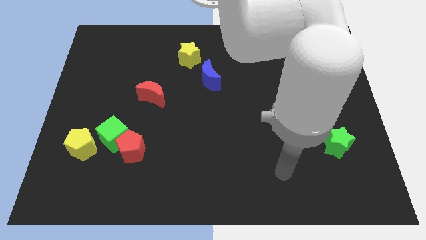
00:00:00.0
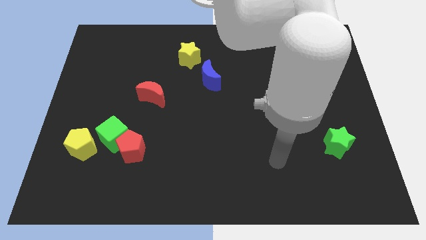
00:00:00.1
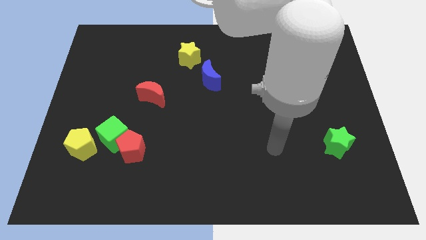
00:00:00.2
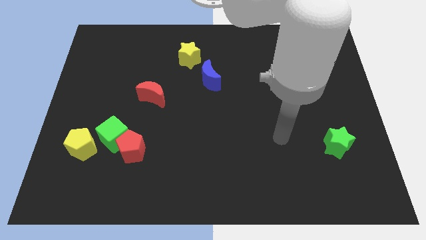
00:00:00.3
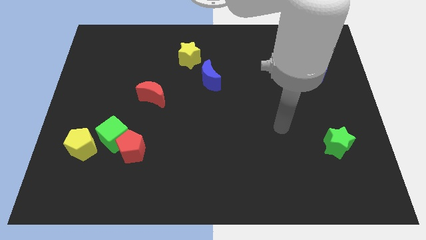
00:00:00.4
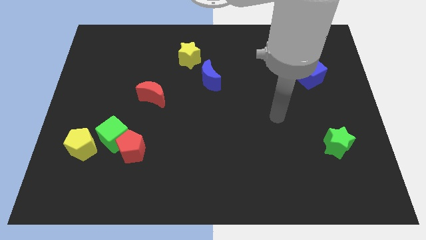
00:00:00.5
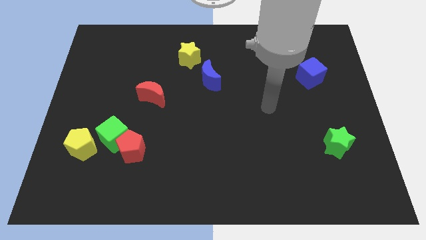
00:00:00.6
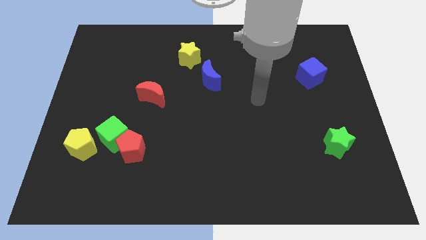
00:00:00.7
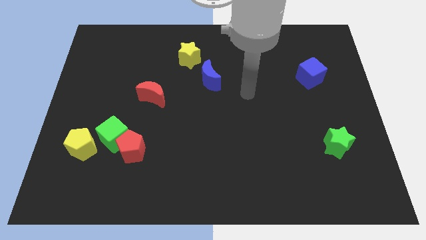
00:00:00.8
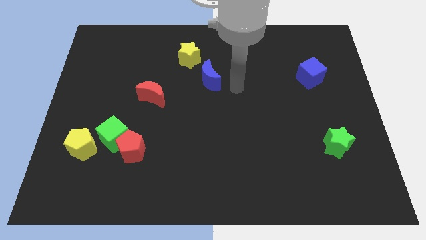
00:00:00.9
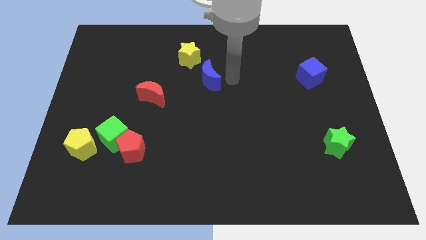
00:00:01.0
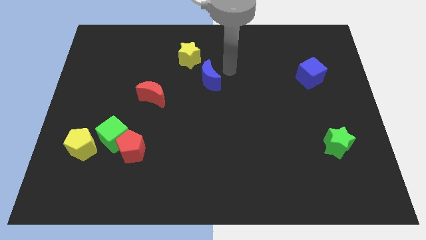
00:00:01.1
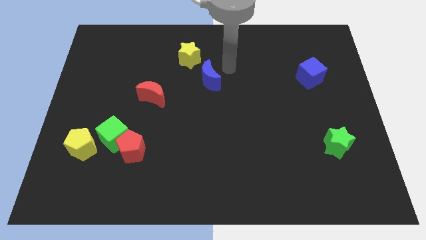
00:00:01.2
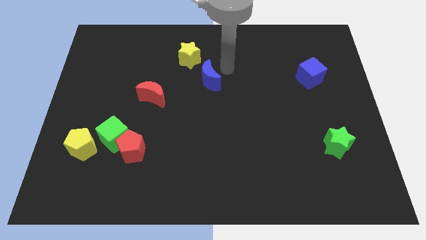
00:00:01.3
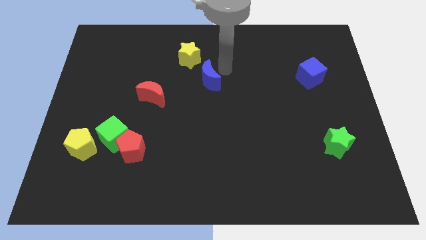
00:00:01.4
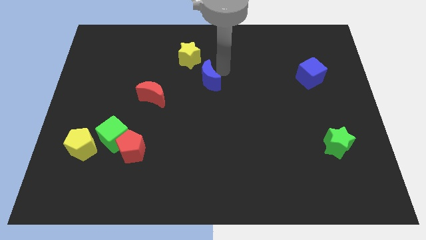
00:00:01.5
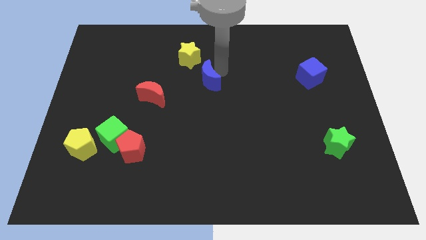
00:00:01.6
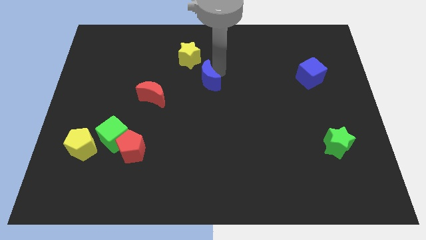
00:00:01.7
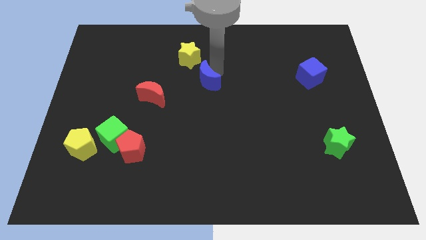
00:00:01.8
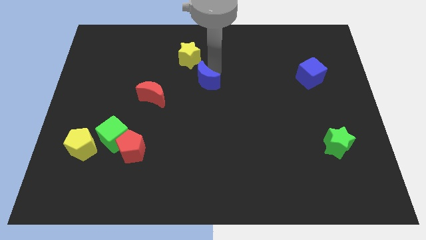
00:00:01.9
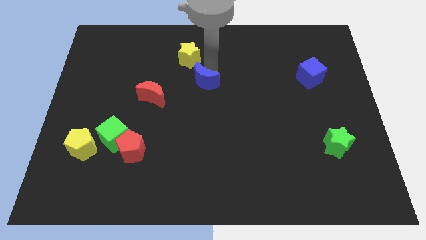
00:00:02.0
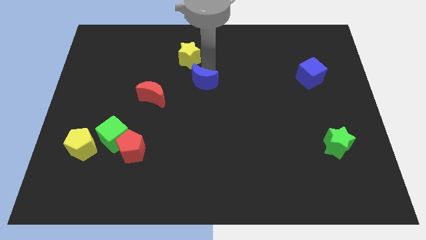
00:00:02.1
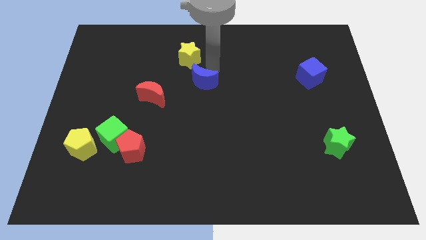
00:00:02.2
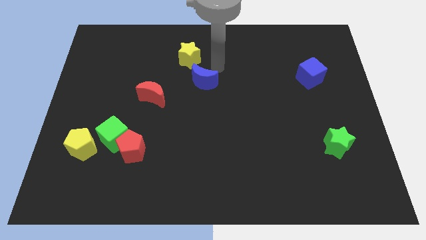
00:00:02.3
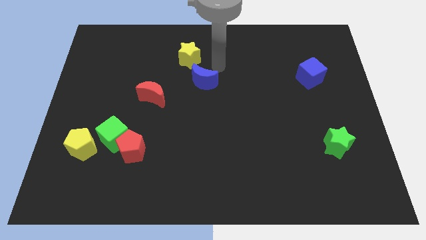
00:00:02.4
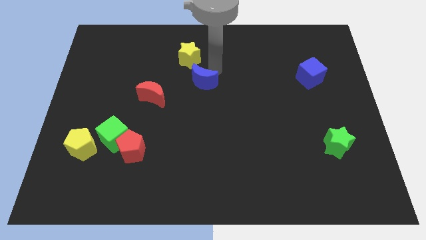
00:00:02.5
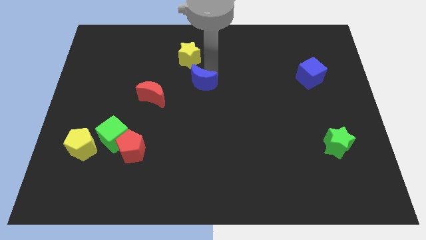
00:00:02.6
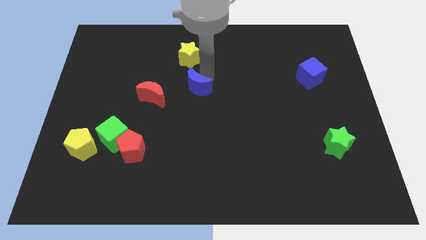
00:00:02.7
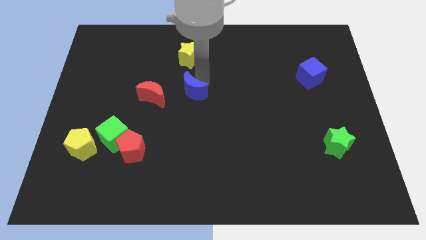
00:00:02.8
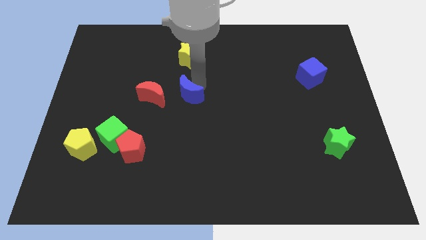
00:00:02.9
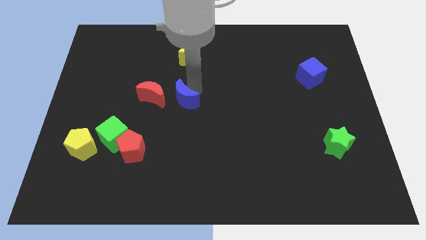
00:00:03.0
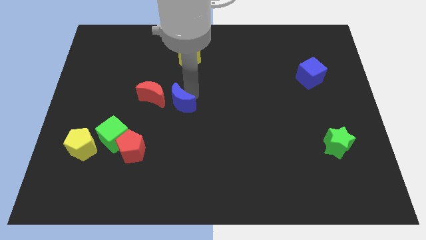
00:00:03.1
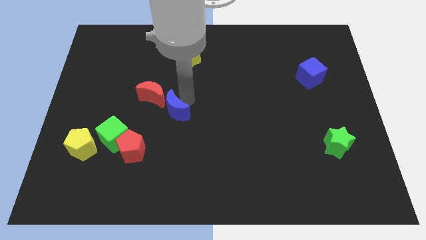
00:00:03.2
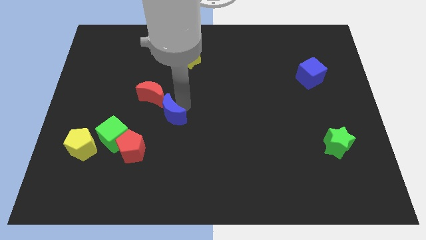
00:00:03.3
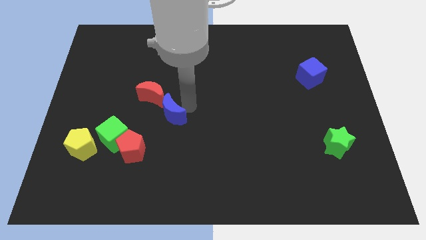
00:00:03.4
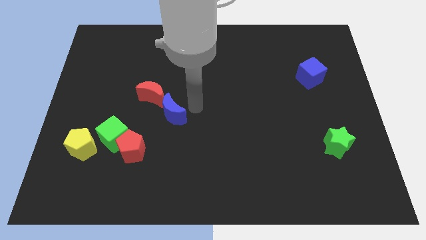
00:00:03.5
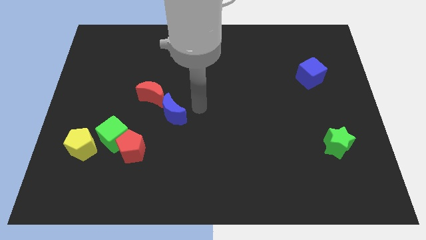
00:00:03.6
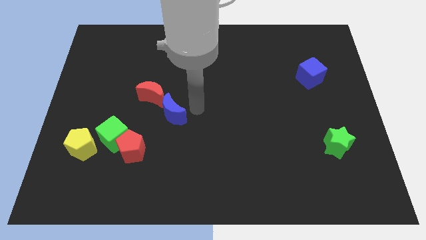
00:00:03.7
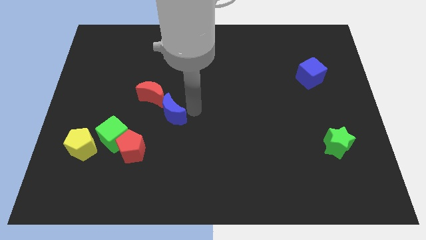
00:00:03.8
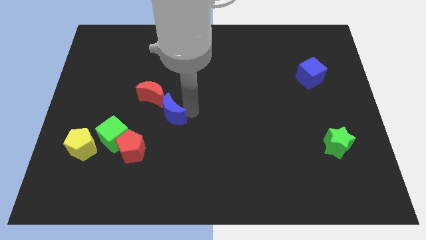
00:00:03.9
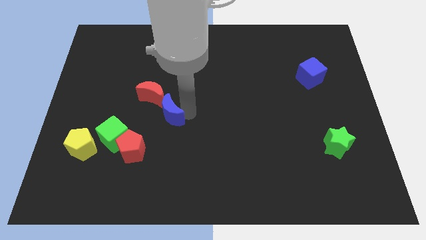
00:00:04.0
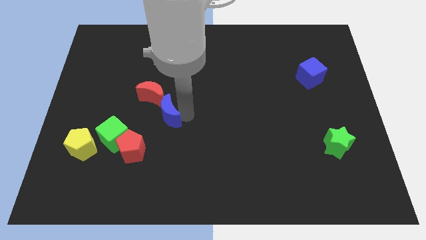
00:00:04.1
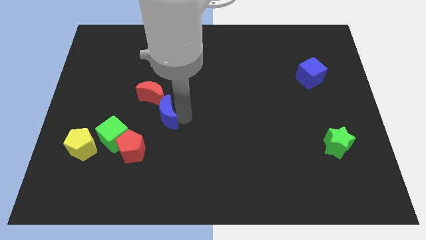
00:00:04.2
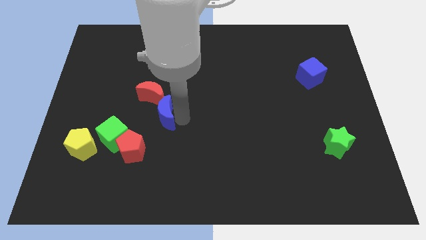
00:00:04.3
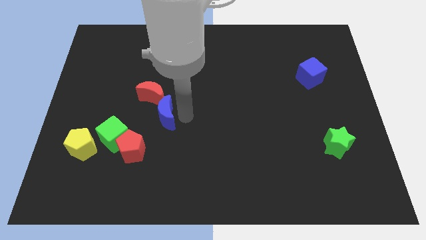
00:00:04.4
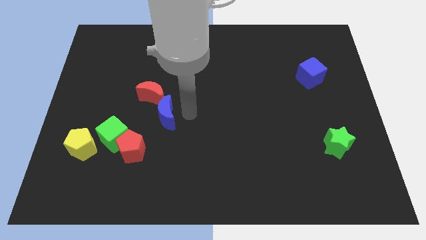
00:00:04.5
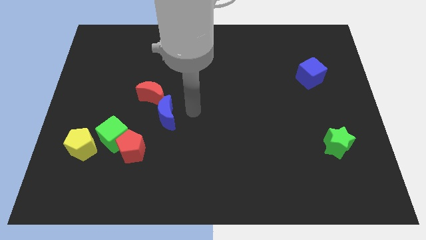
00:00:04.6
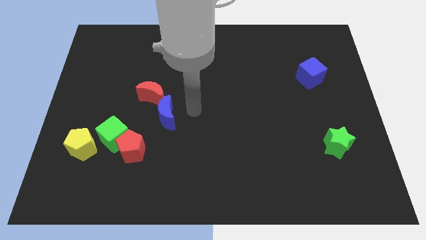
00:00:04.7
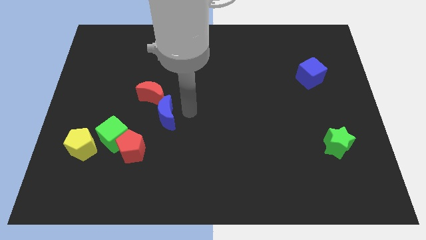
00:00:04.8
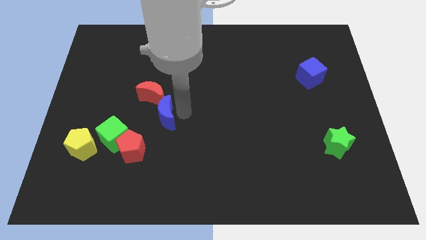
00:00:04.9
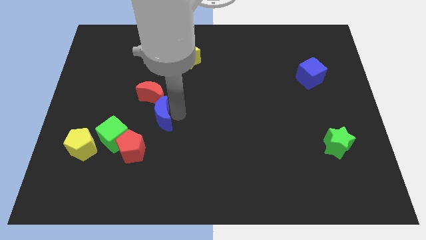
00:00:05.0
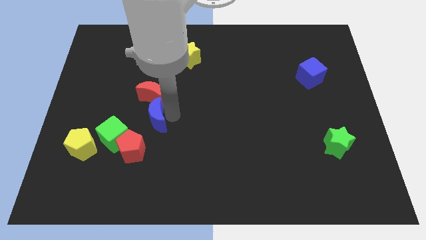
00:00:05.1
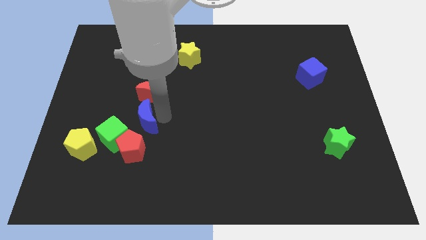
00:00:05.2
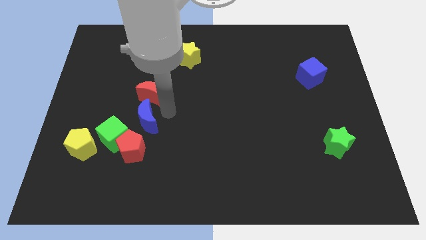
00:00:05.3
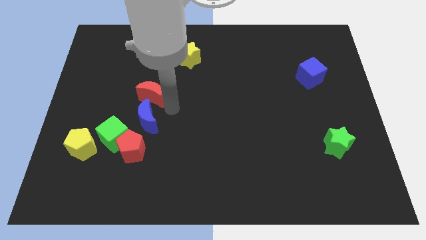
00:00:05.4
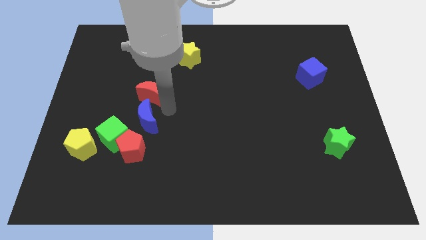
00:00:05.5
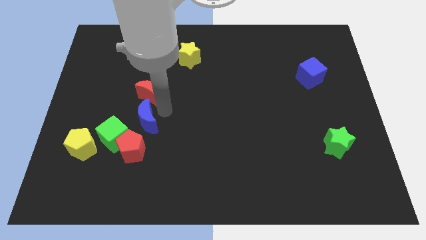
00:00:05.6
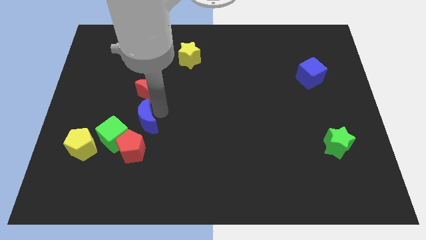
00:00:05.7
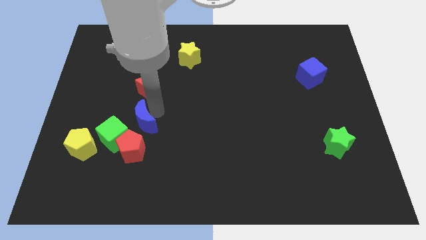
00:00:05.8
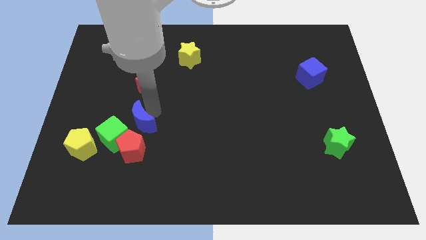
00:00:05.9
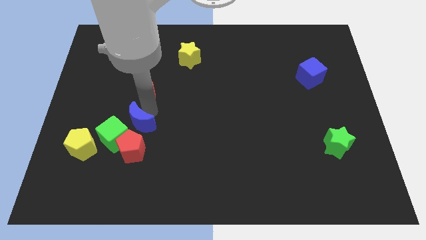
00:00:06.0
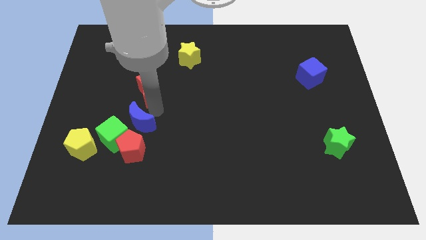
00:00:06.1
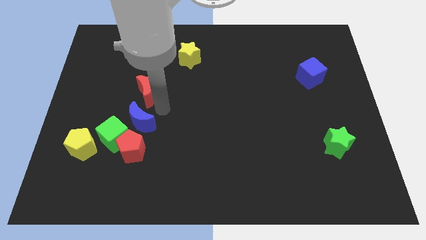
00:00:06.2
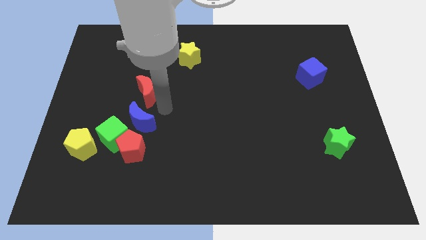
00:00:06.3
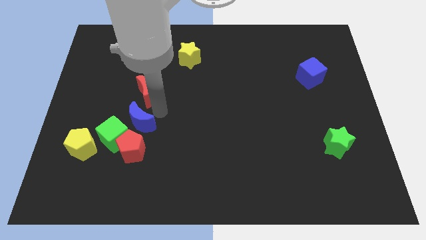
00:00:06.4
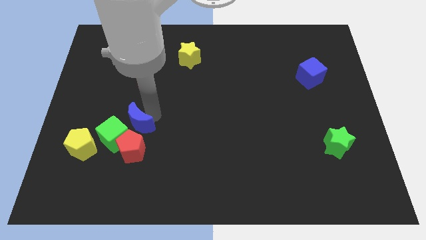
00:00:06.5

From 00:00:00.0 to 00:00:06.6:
slide the blue moon towards the green cube

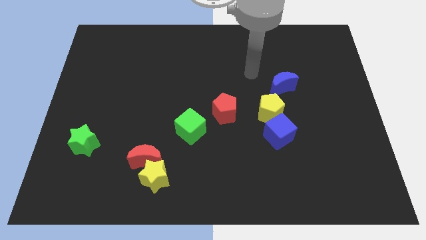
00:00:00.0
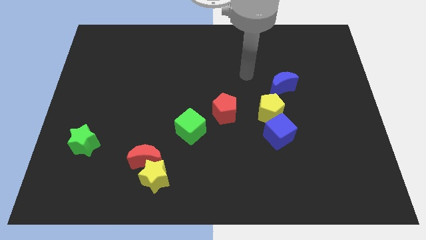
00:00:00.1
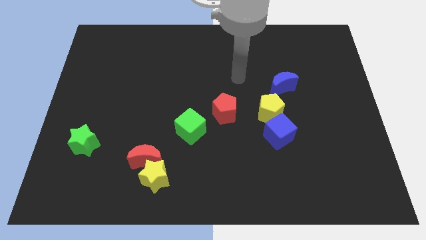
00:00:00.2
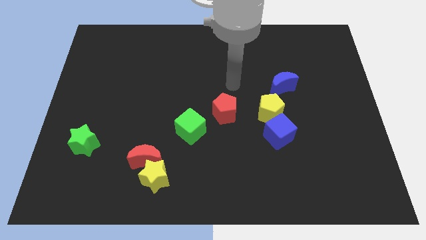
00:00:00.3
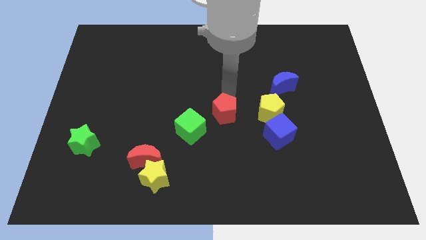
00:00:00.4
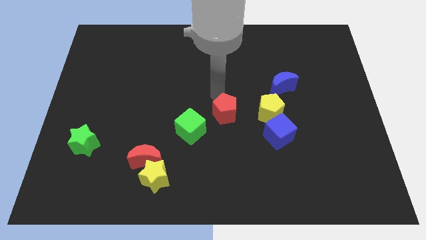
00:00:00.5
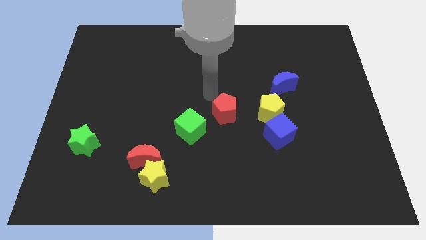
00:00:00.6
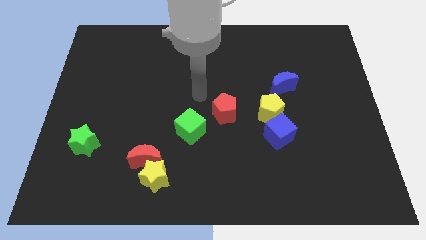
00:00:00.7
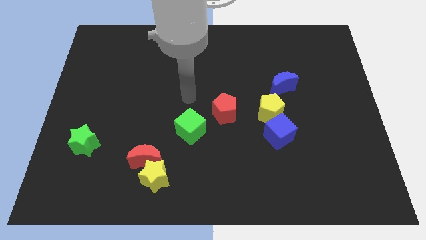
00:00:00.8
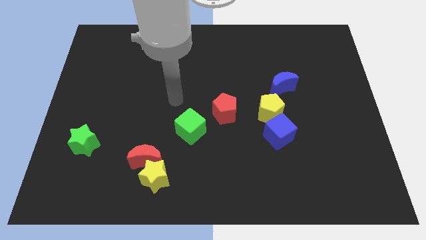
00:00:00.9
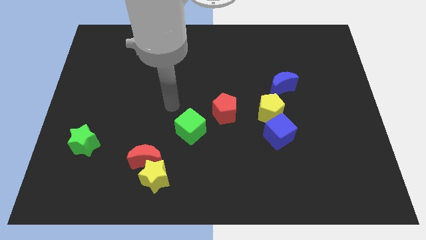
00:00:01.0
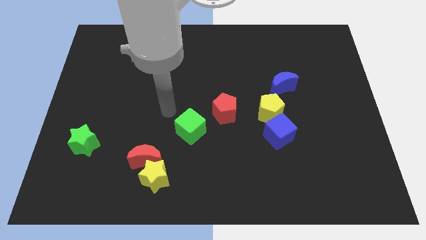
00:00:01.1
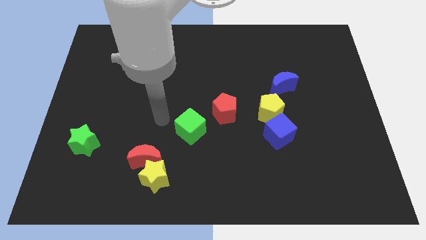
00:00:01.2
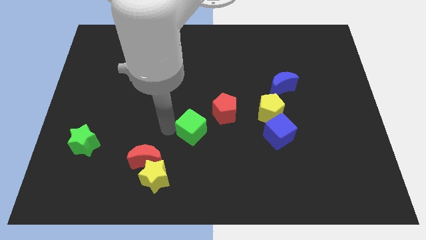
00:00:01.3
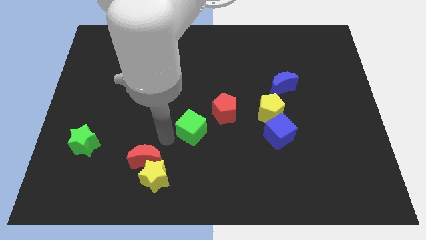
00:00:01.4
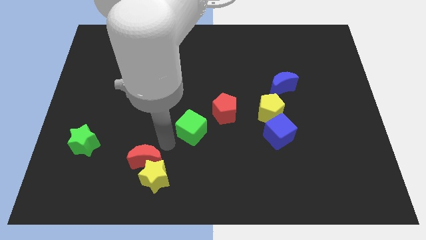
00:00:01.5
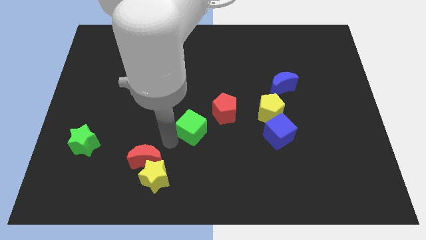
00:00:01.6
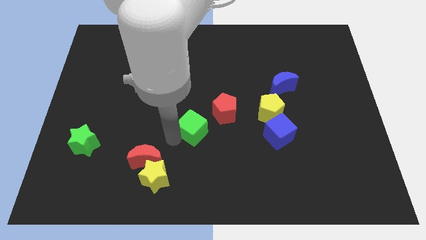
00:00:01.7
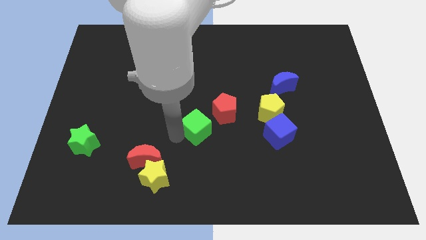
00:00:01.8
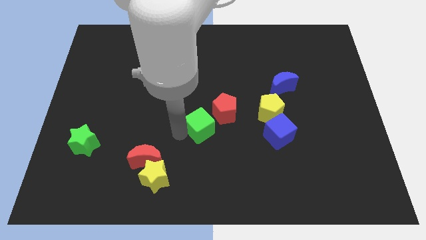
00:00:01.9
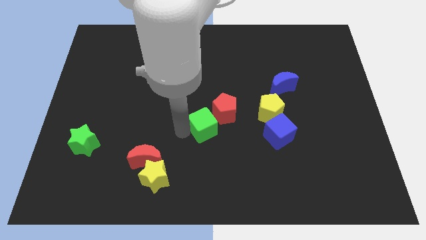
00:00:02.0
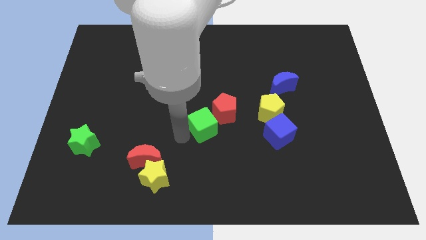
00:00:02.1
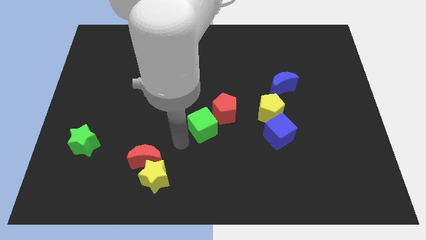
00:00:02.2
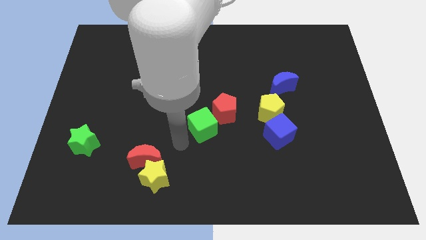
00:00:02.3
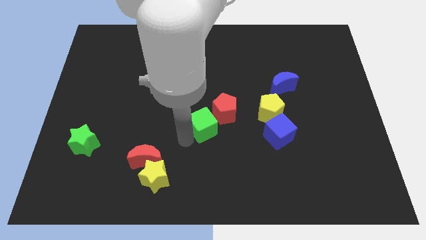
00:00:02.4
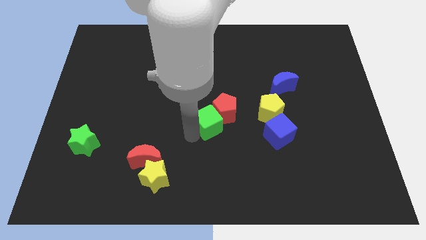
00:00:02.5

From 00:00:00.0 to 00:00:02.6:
slide the green cube next to the red pentagon
